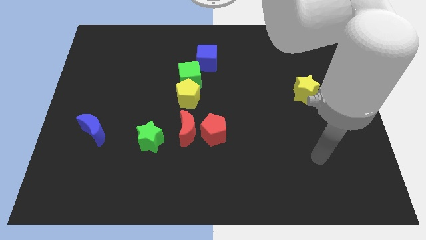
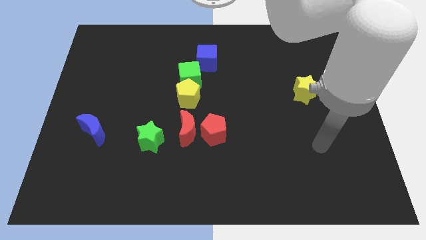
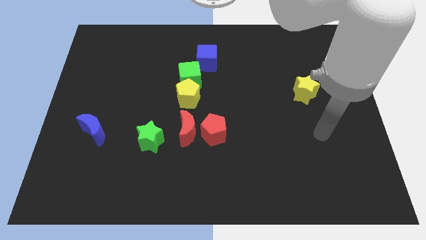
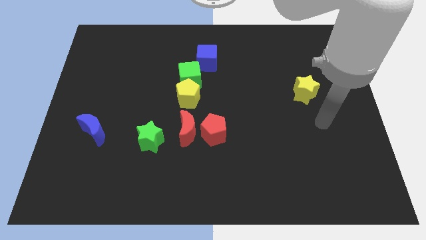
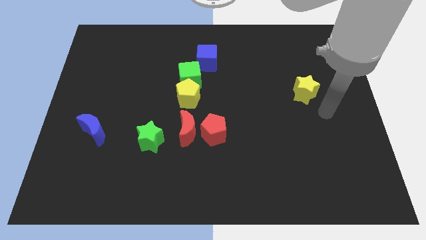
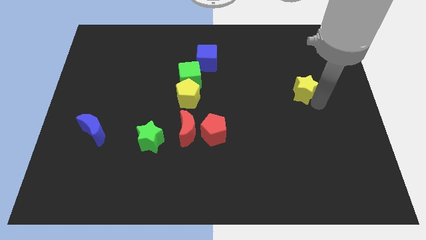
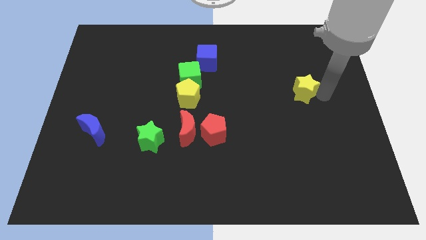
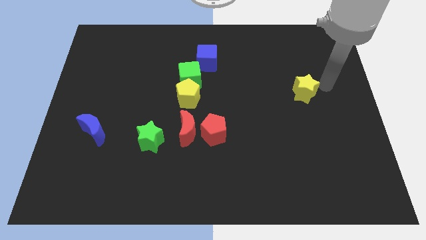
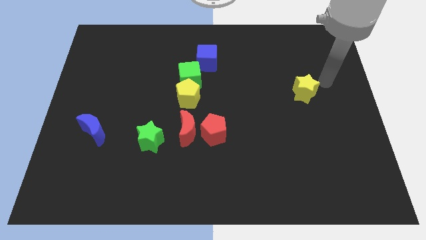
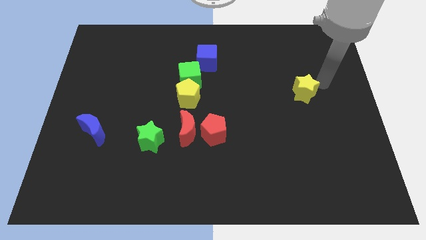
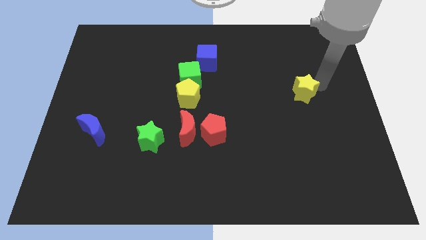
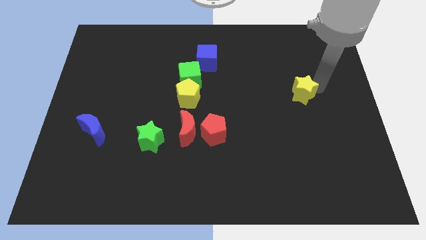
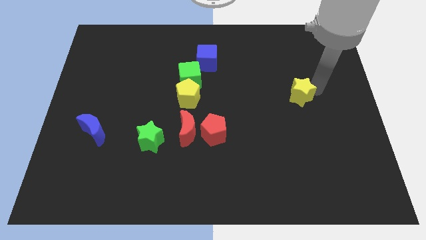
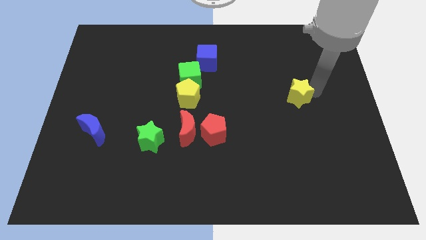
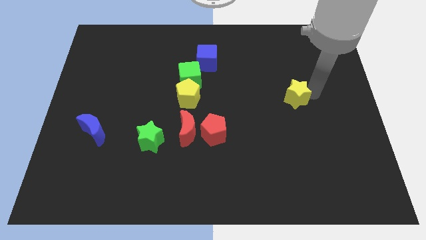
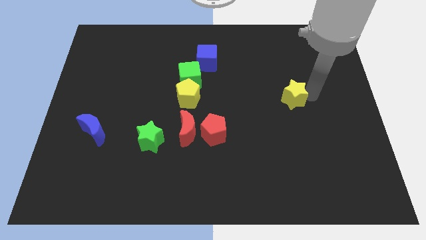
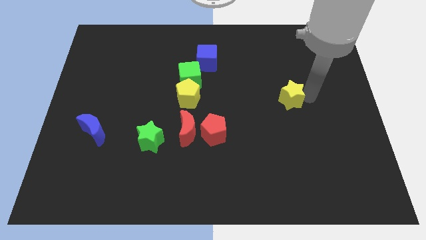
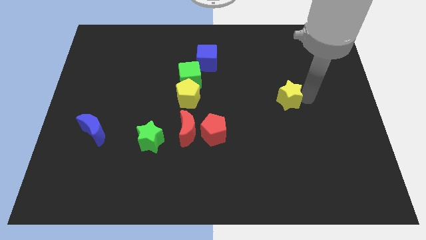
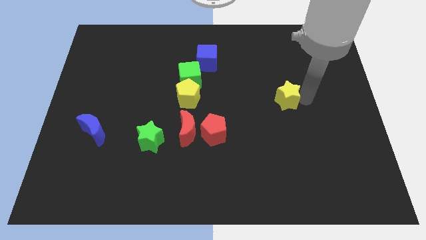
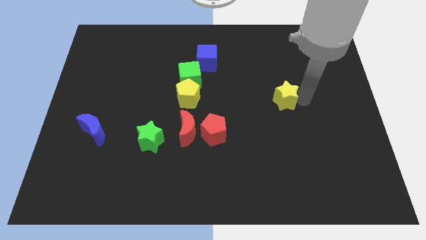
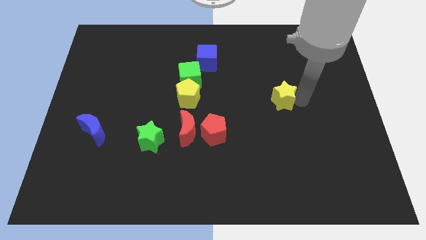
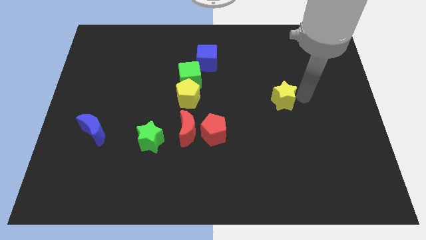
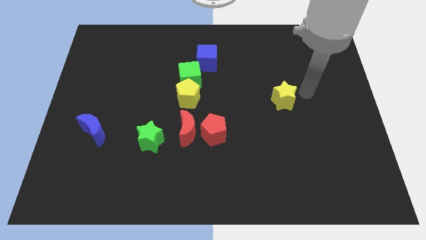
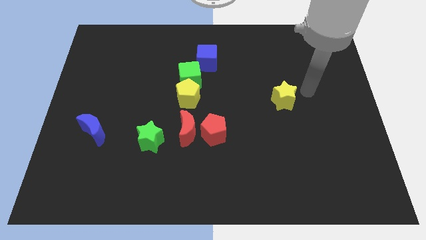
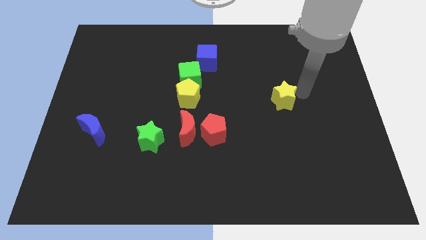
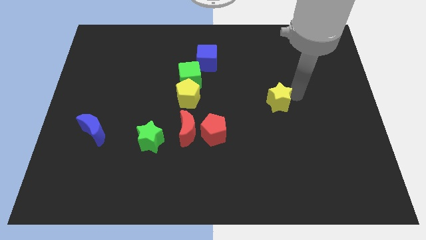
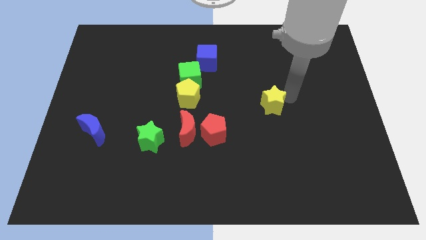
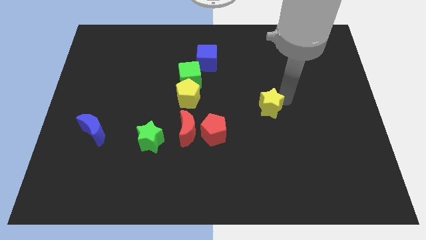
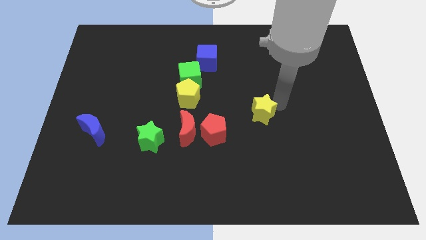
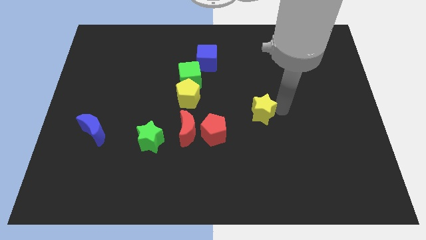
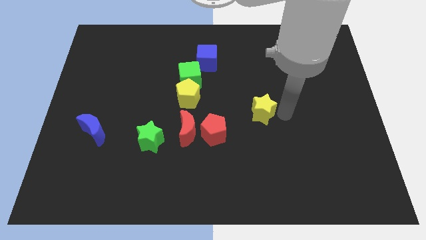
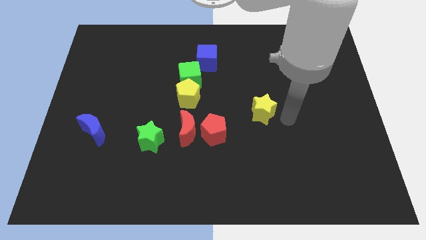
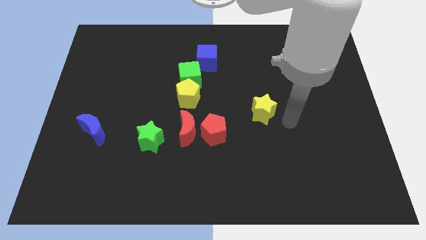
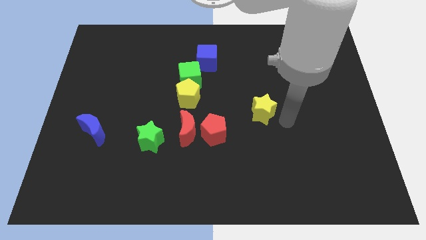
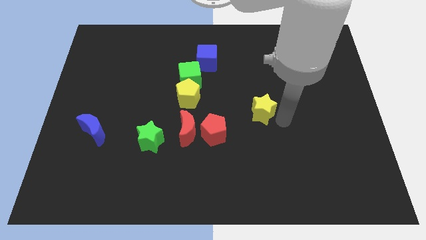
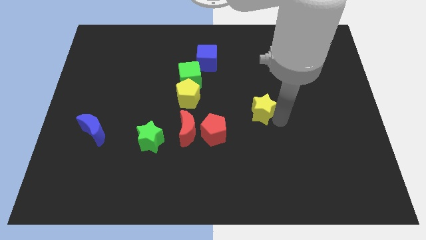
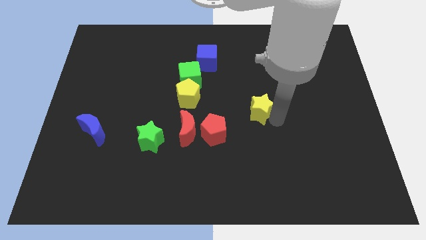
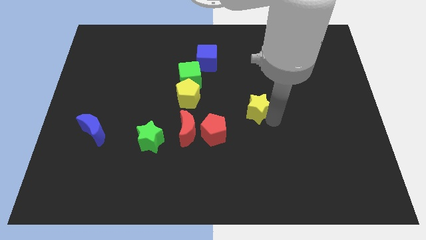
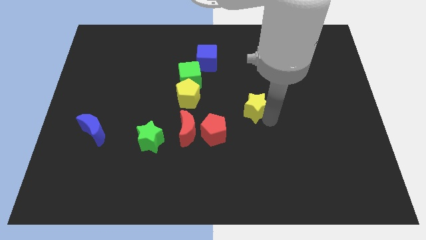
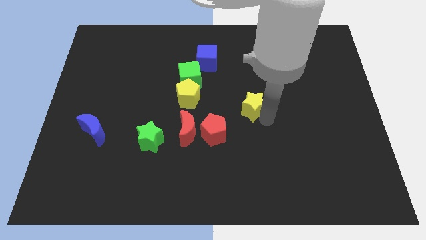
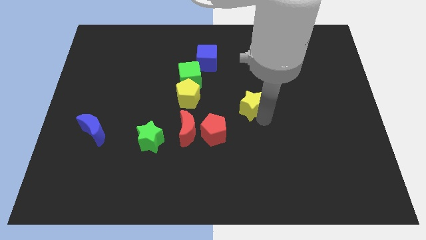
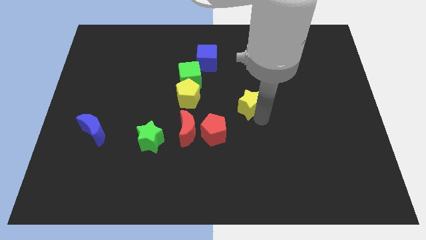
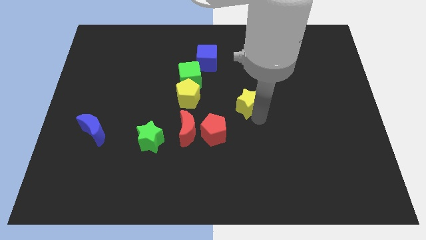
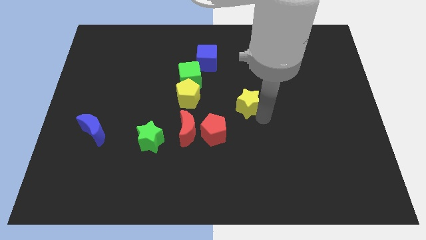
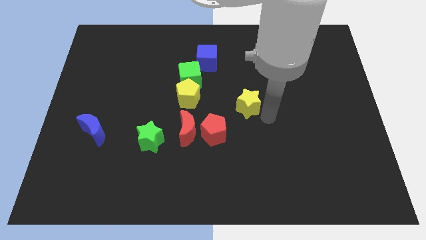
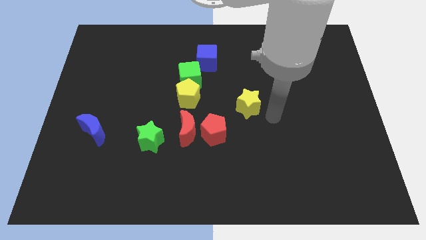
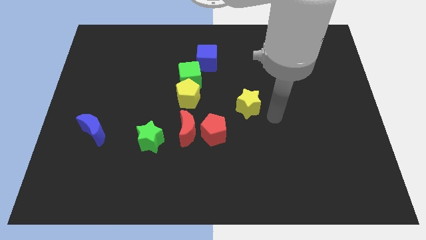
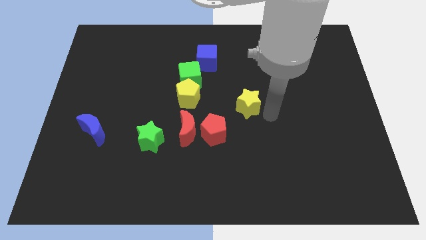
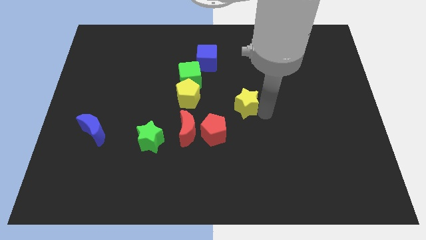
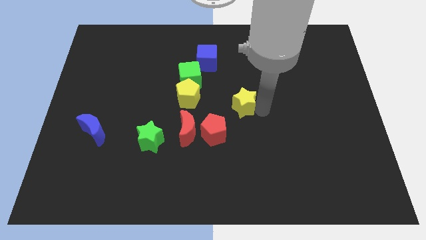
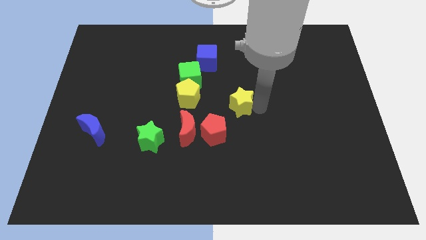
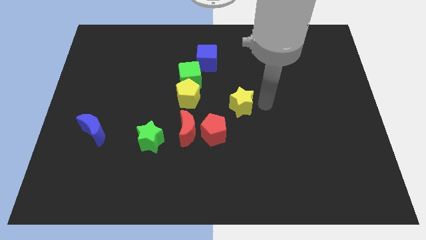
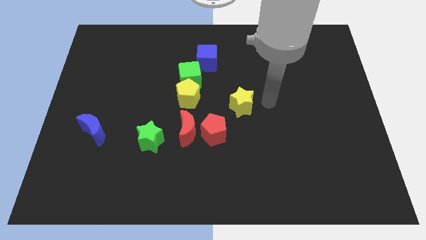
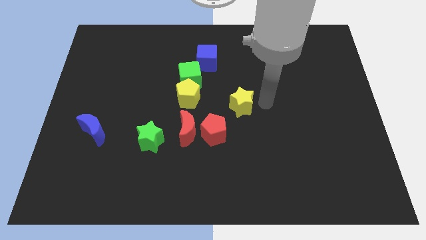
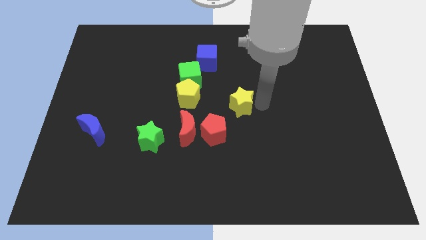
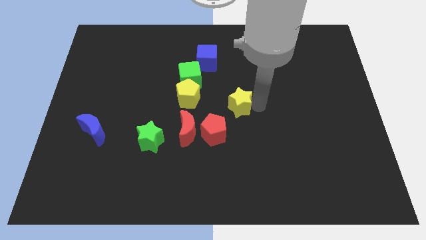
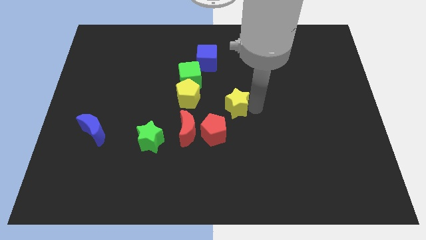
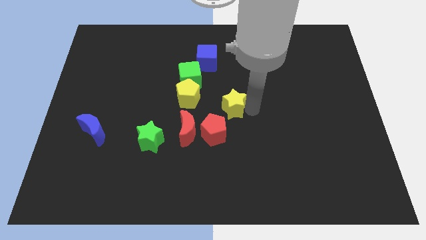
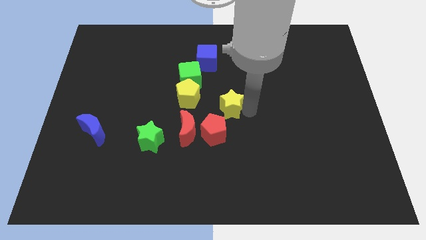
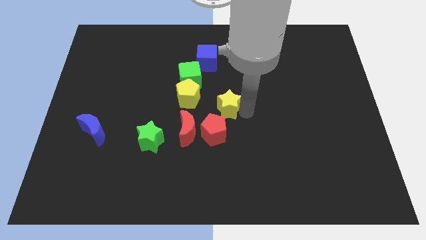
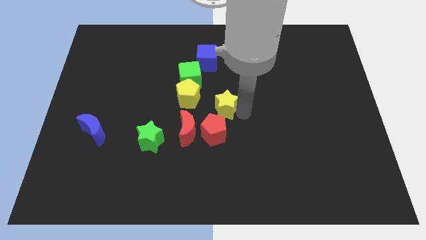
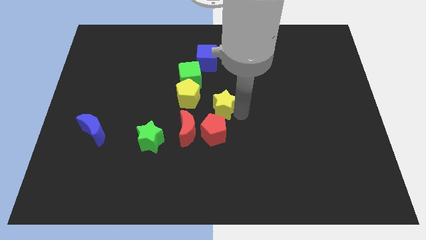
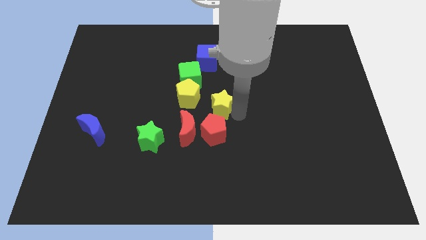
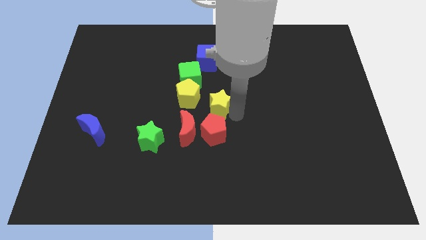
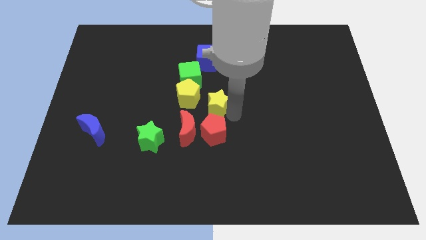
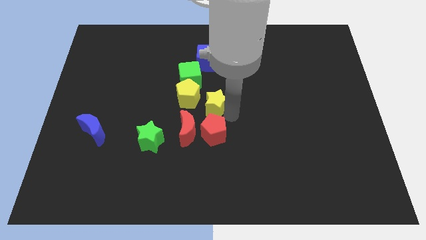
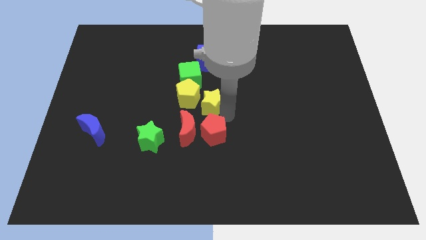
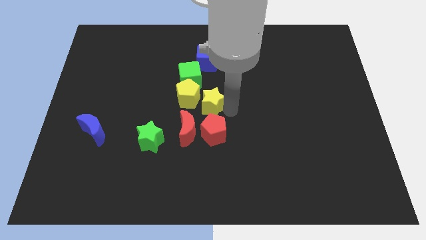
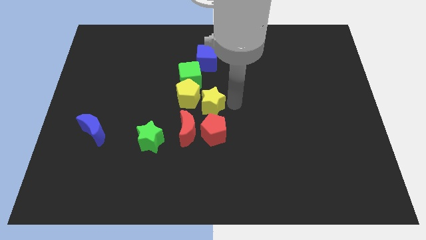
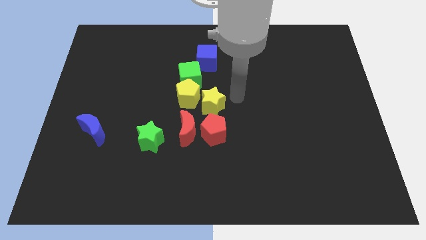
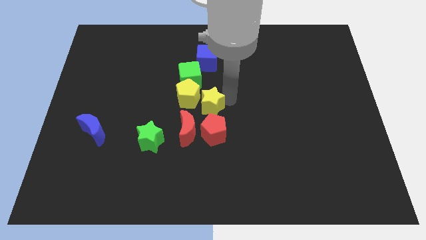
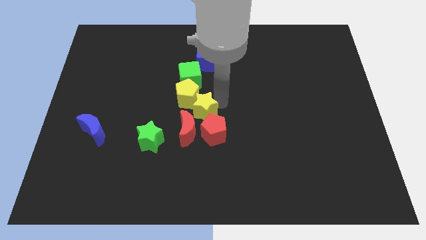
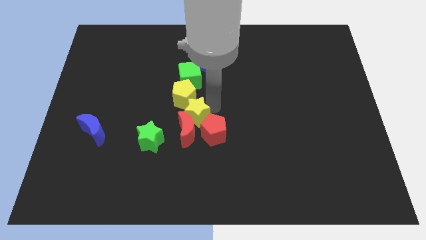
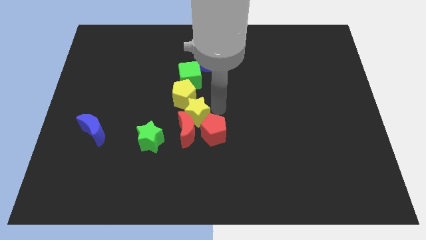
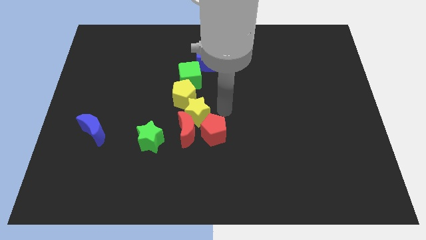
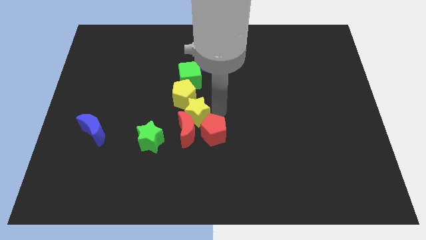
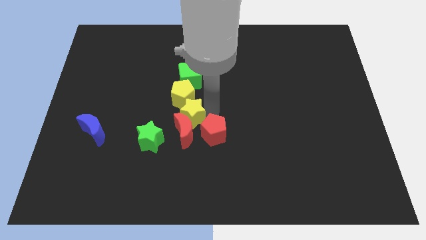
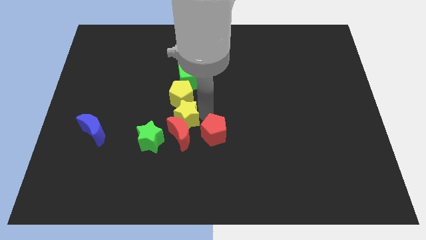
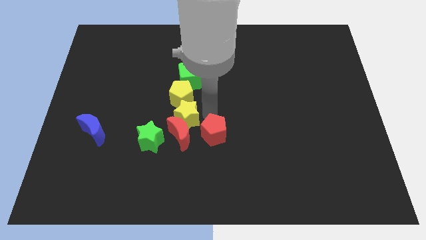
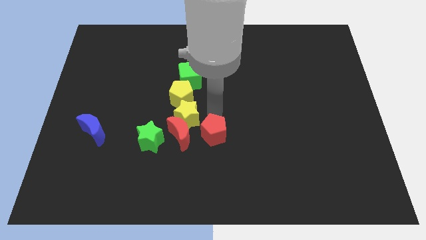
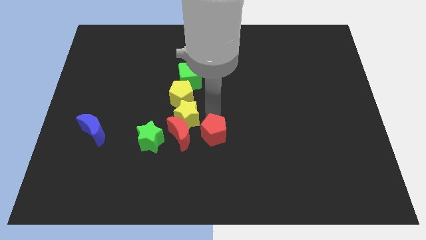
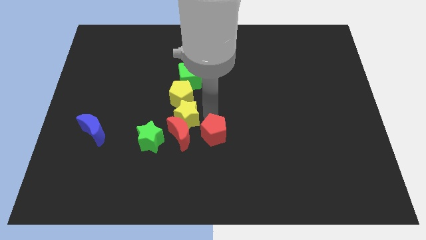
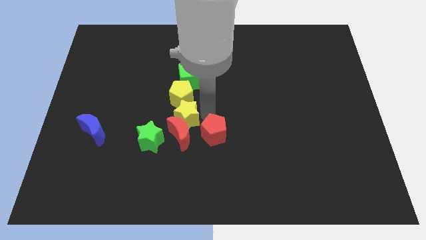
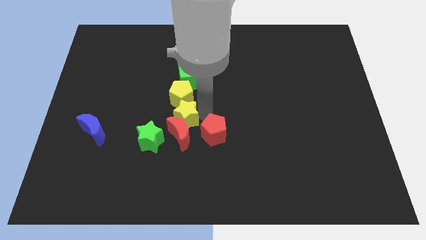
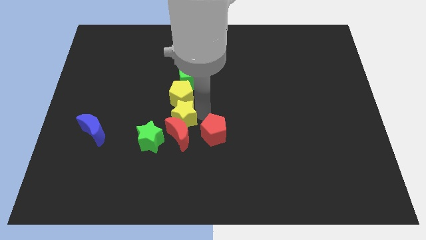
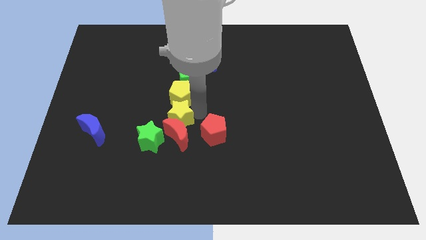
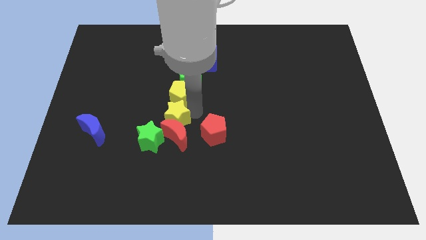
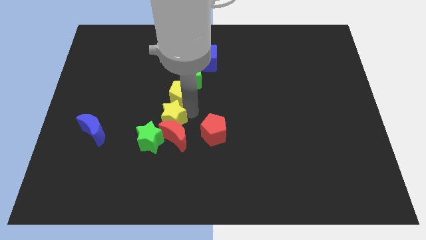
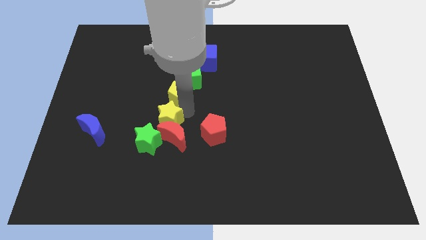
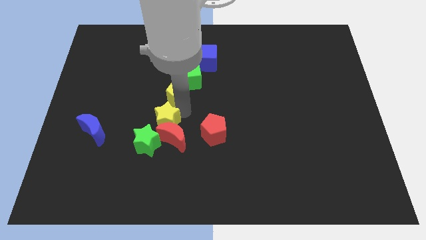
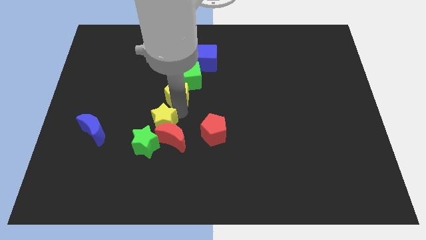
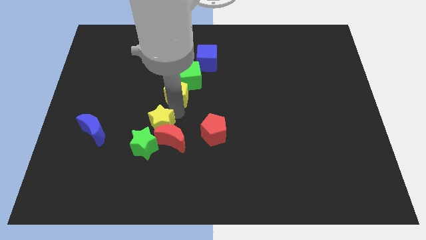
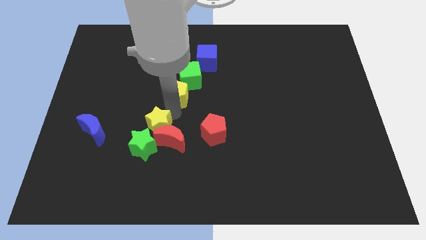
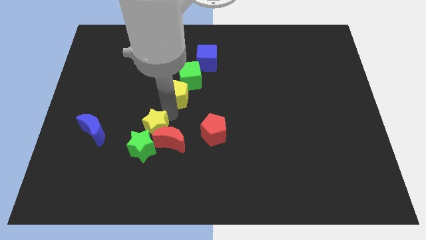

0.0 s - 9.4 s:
put the yellow star towards the green star
